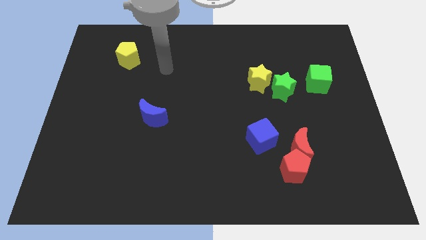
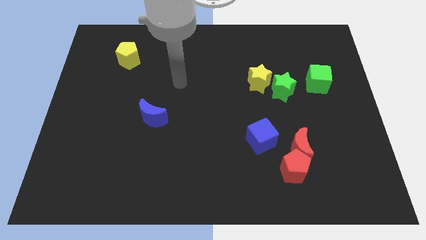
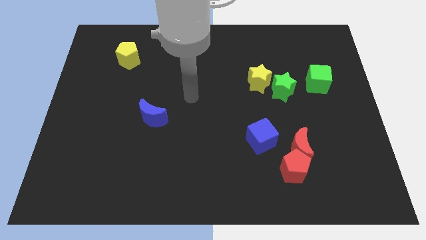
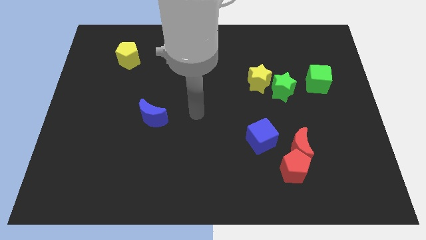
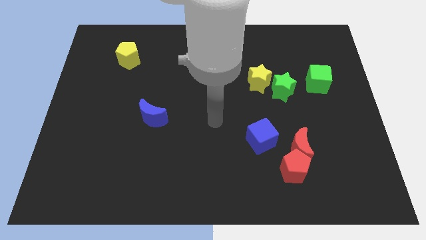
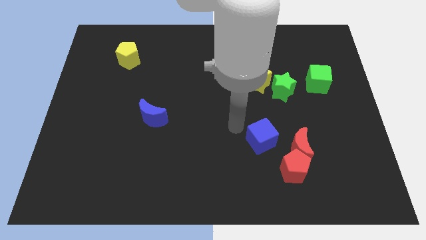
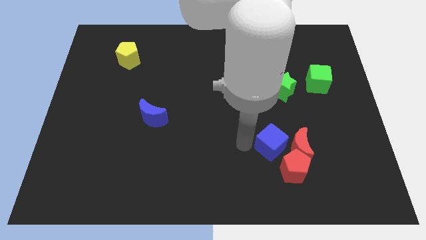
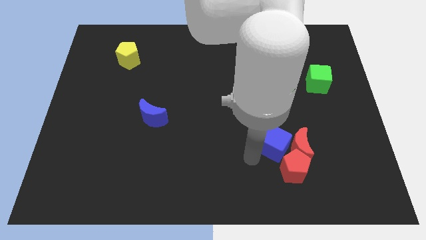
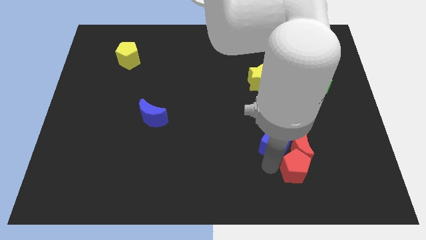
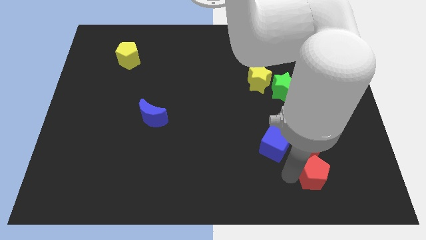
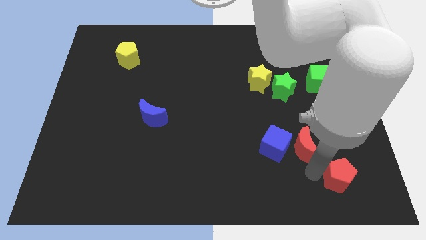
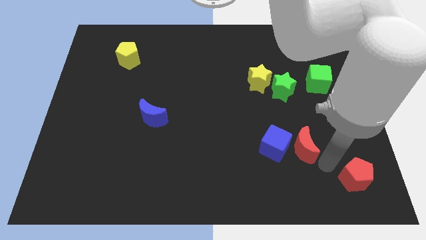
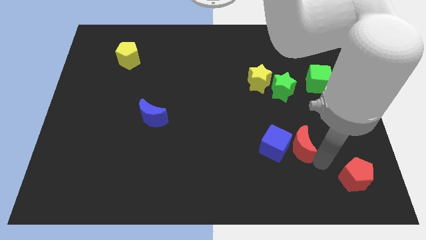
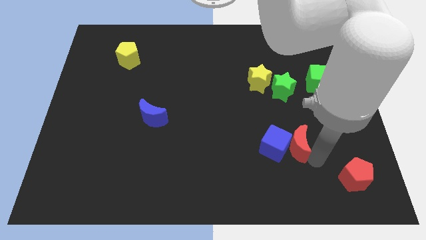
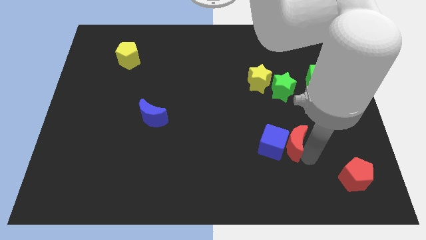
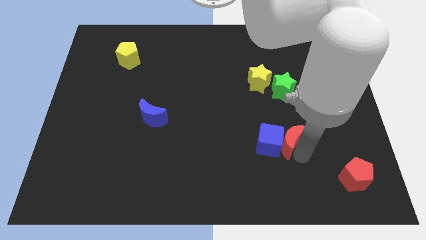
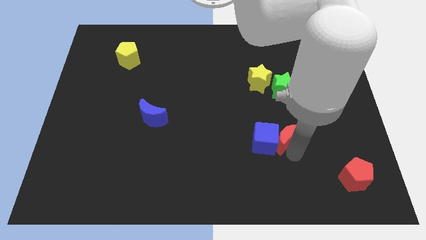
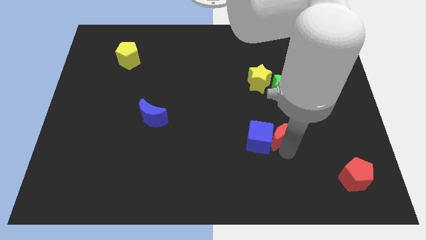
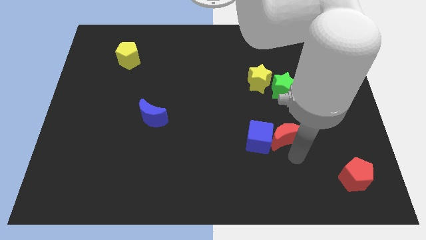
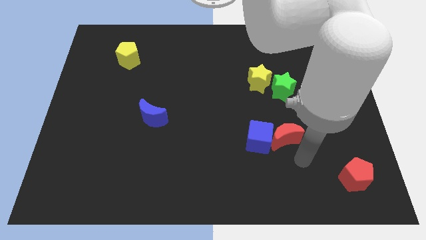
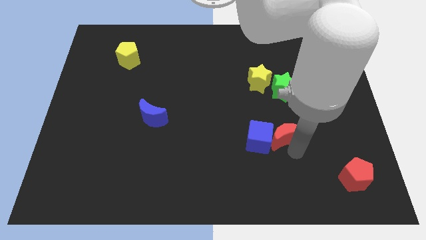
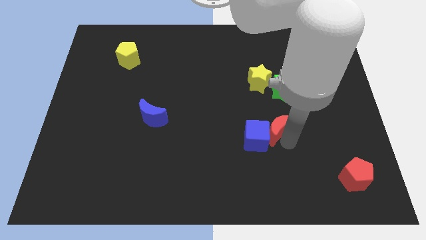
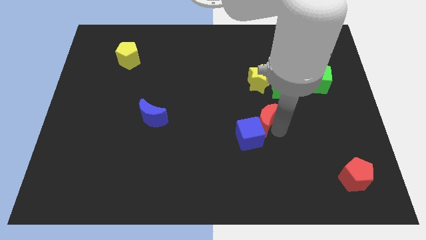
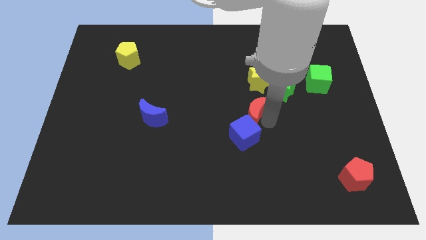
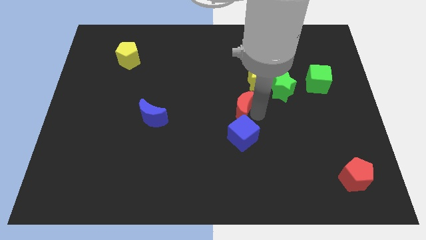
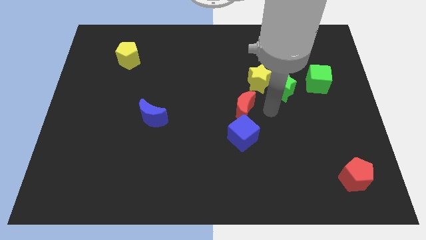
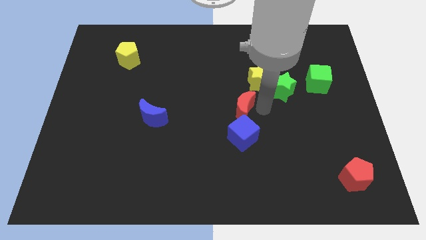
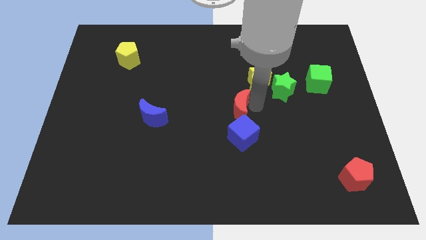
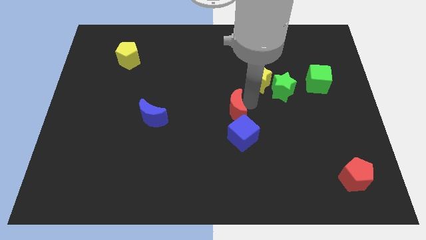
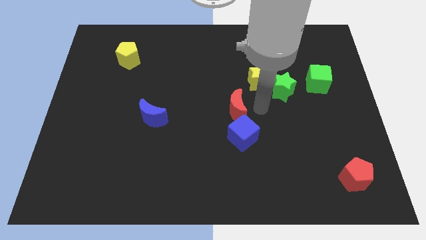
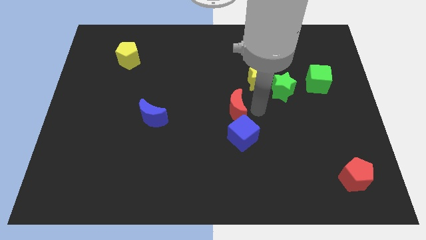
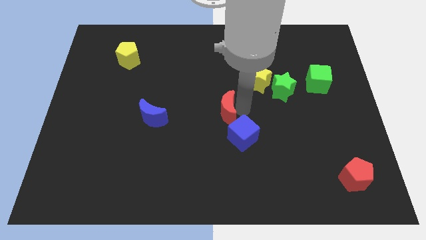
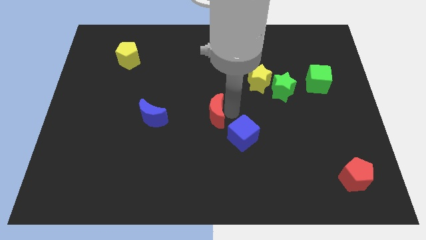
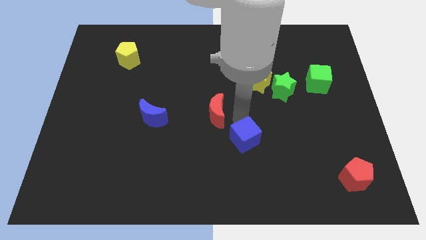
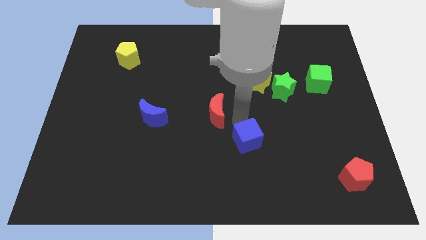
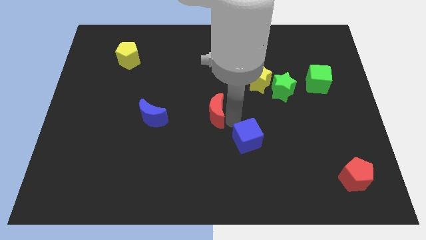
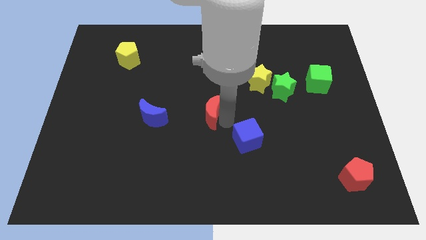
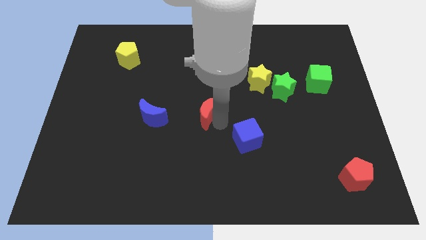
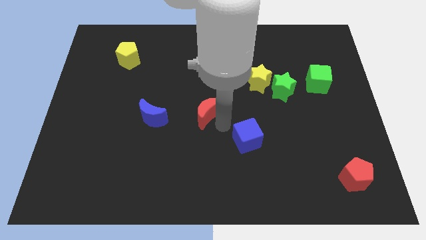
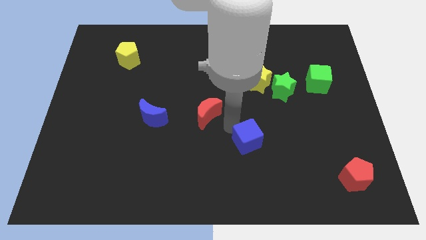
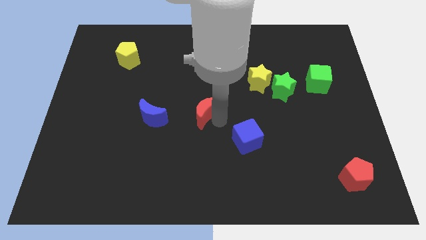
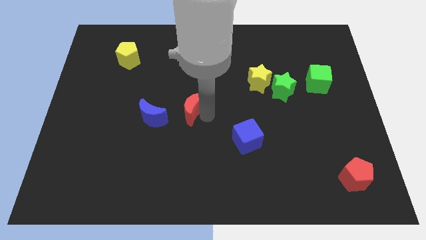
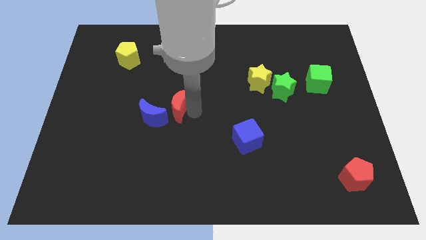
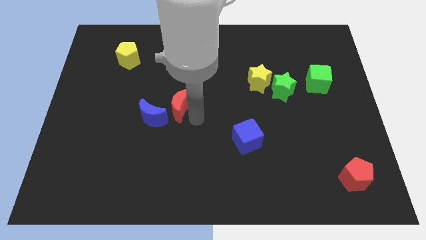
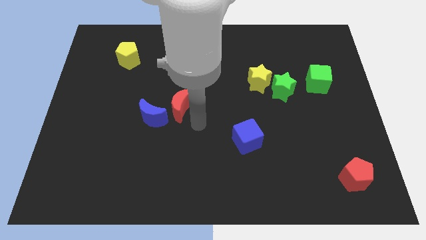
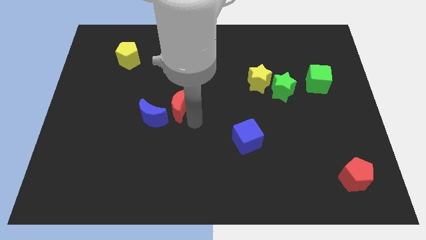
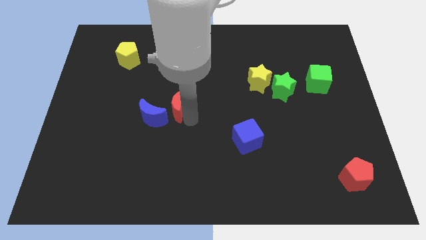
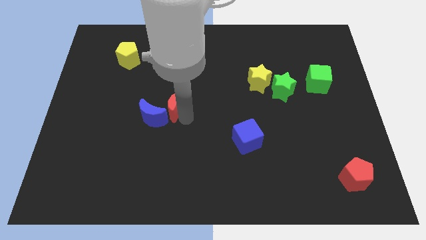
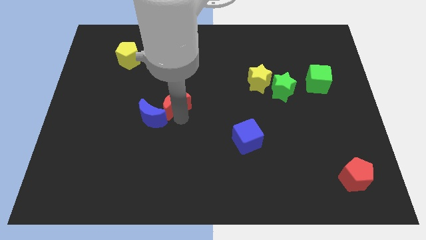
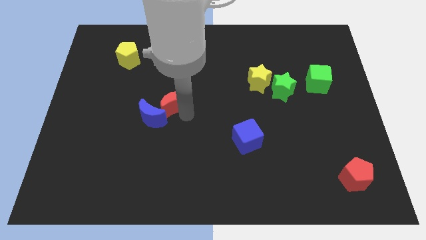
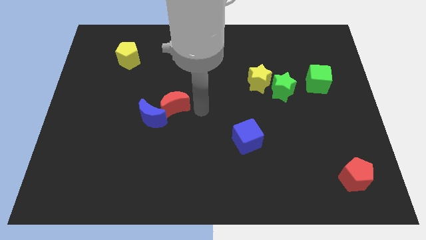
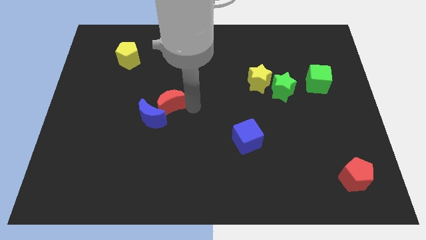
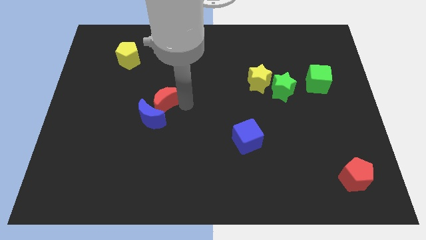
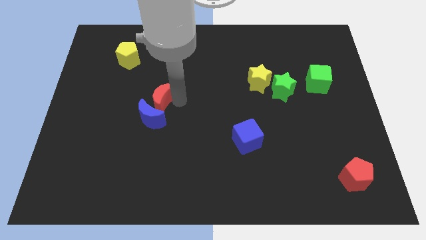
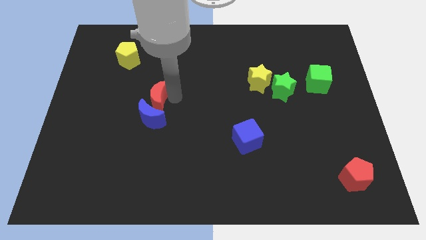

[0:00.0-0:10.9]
slide the red moon diagonally up and to the left of the blue moon

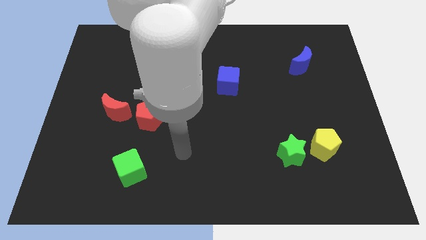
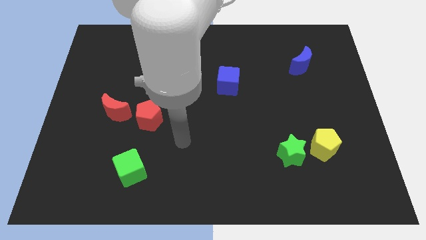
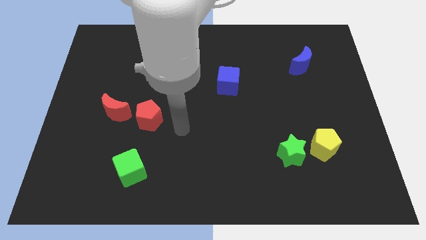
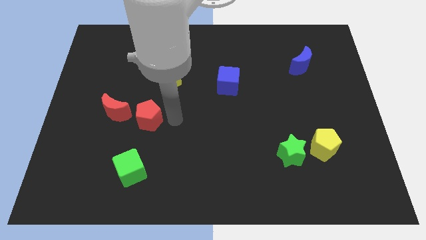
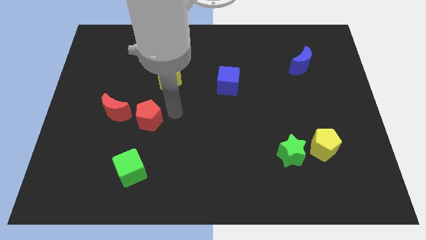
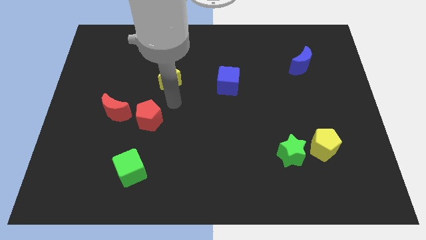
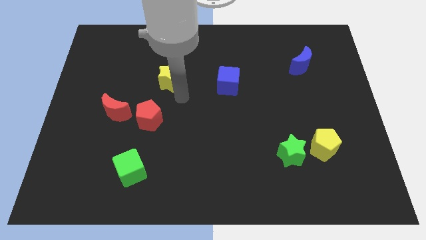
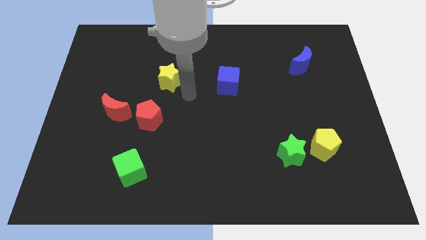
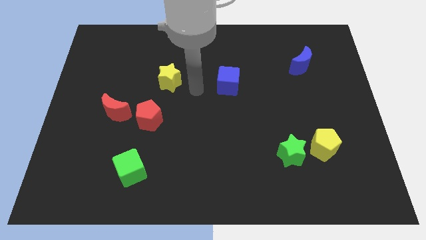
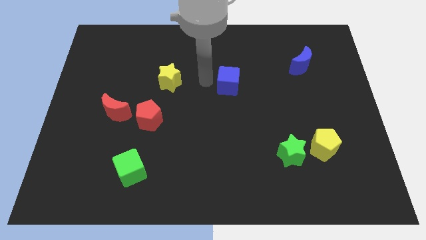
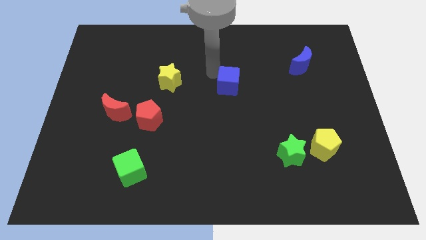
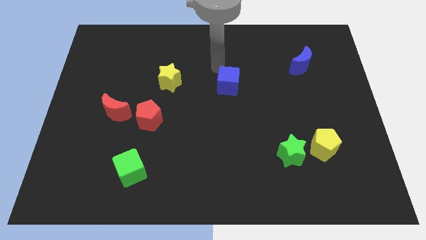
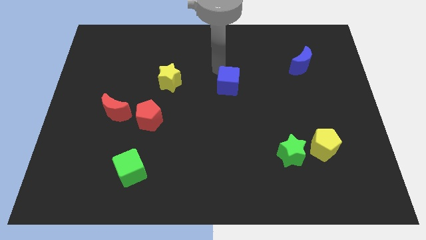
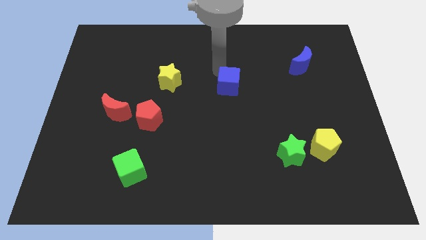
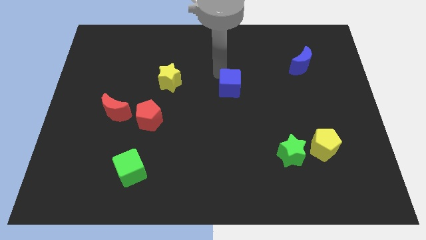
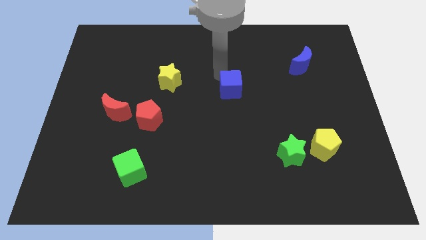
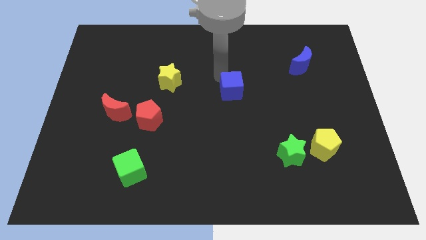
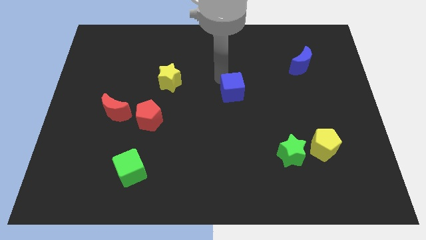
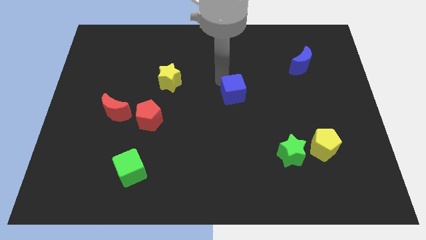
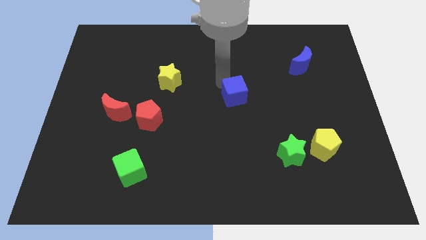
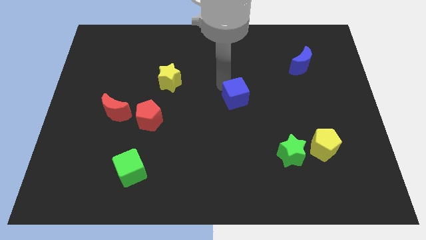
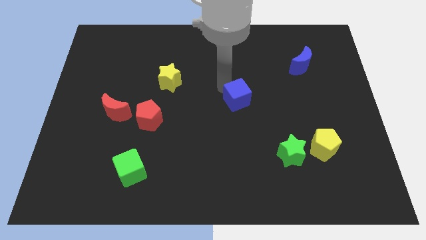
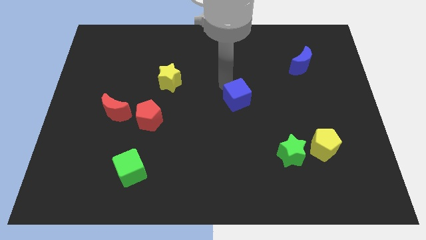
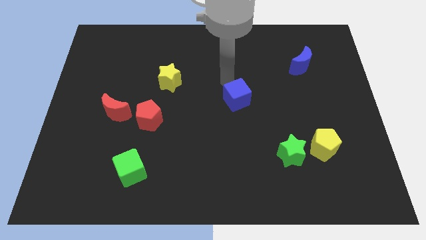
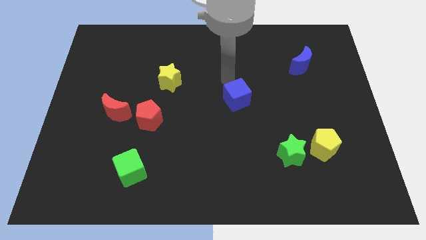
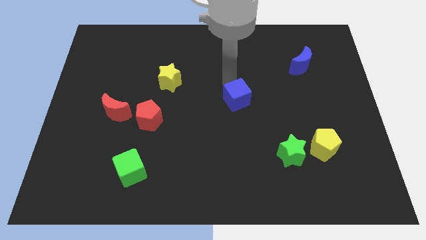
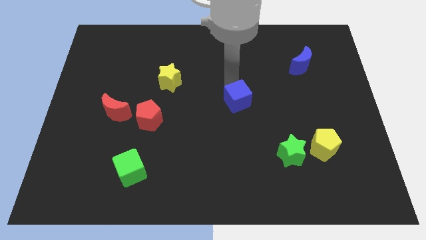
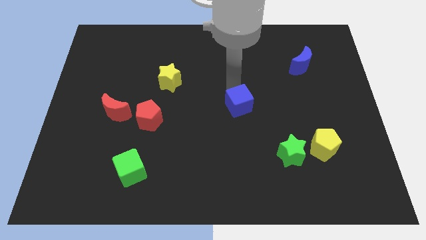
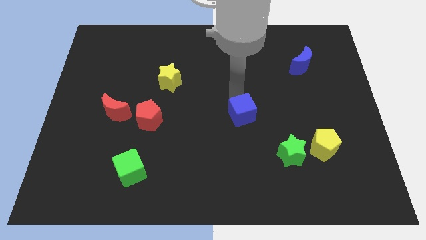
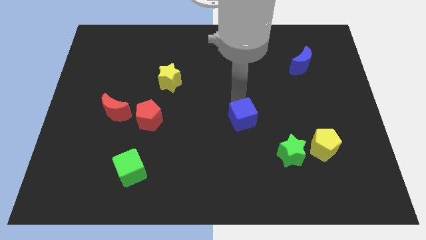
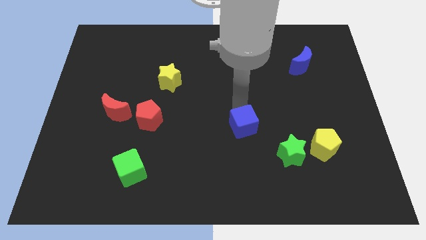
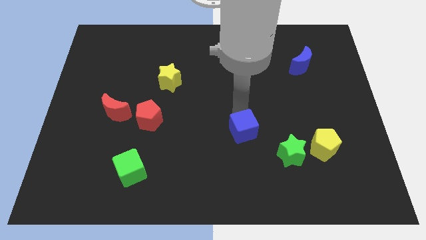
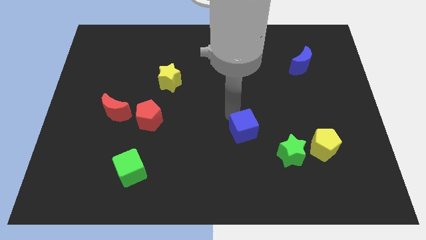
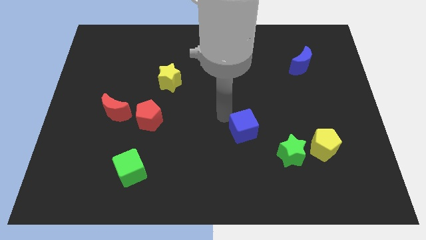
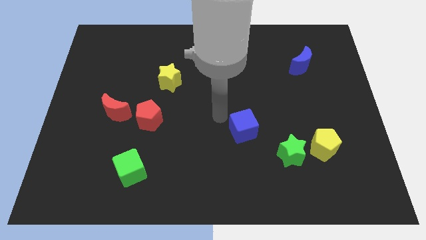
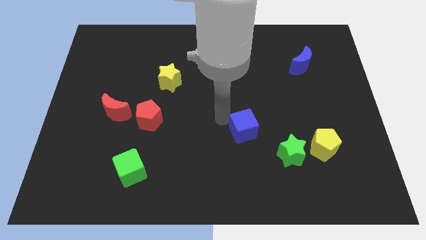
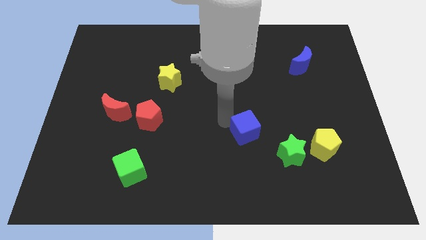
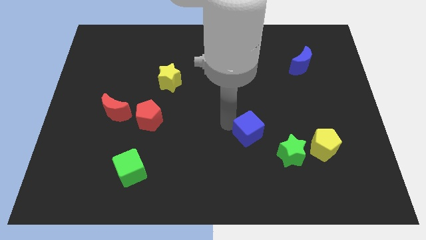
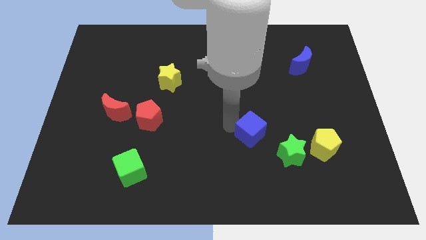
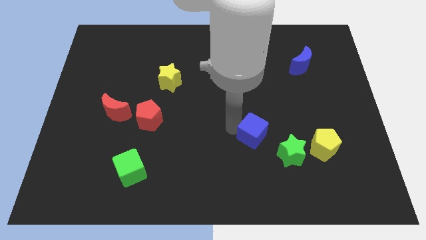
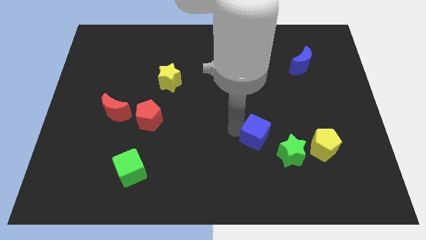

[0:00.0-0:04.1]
put the blue cube just left of the yellow pentagon
